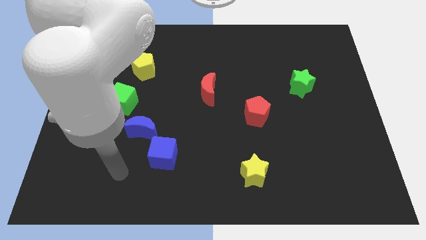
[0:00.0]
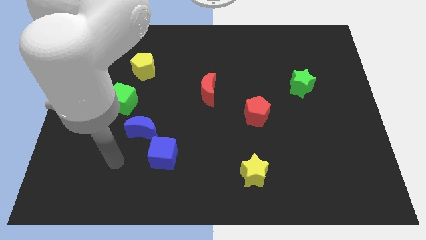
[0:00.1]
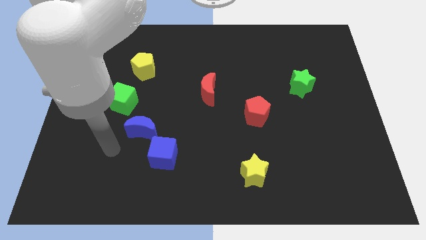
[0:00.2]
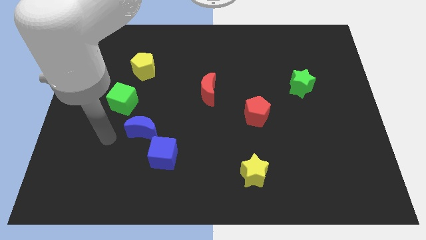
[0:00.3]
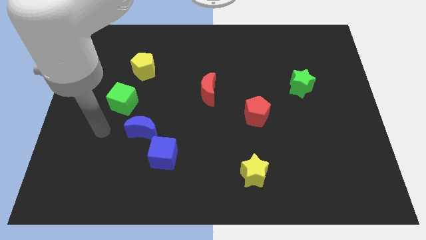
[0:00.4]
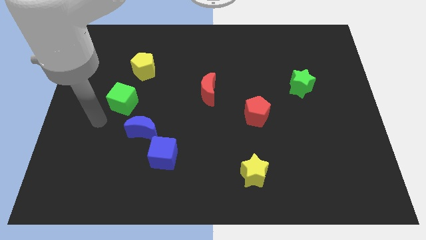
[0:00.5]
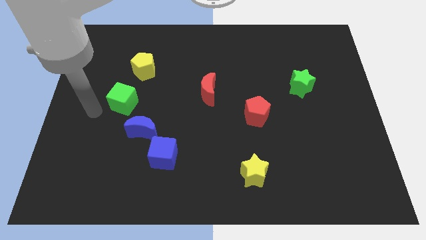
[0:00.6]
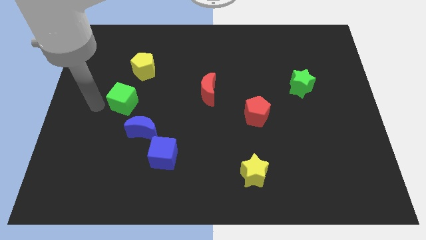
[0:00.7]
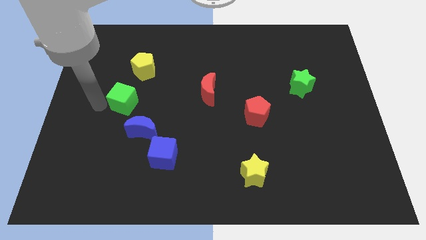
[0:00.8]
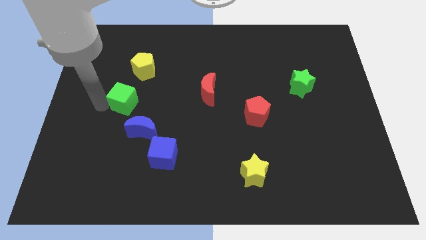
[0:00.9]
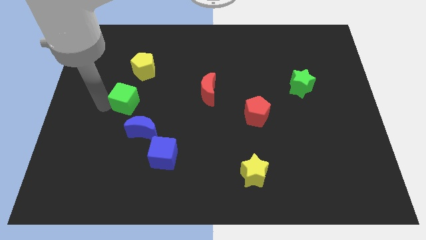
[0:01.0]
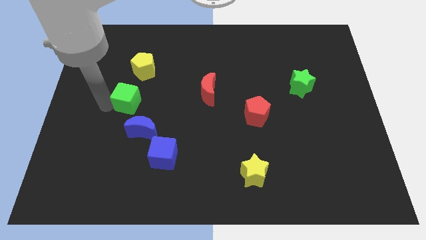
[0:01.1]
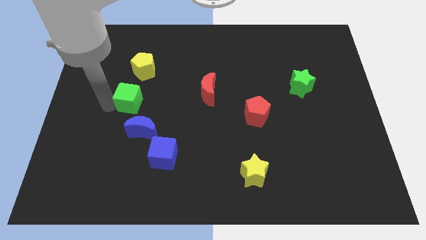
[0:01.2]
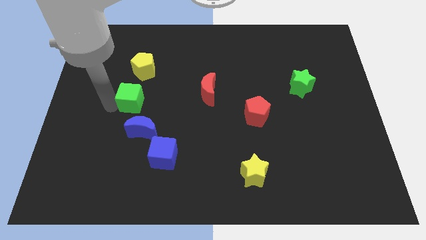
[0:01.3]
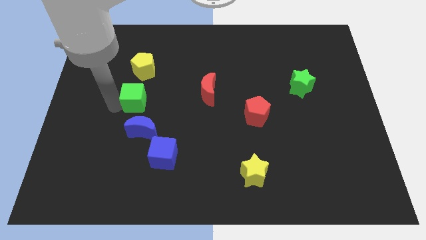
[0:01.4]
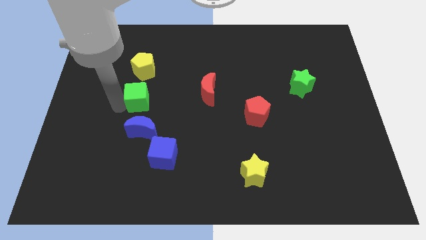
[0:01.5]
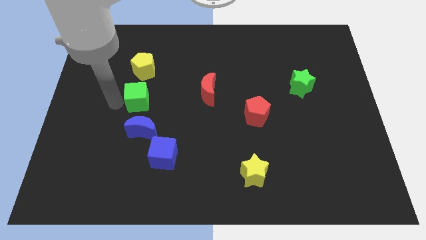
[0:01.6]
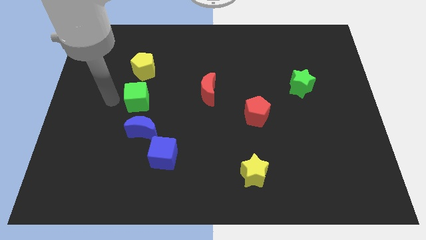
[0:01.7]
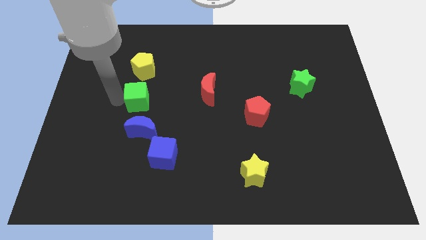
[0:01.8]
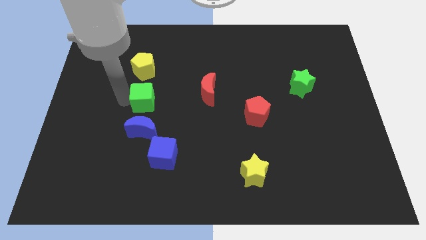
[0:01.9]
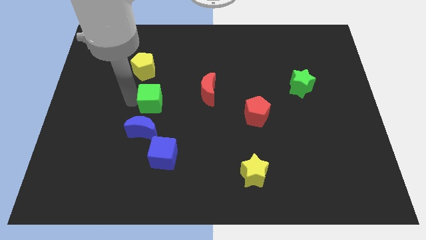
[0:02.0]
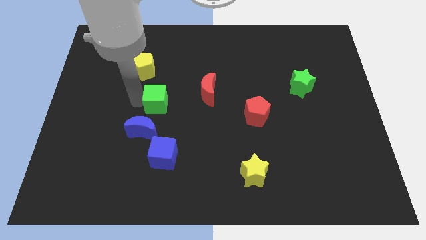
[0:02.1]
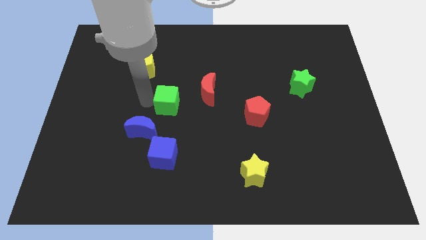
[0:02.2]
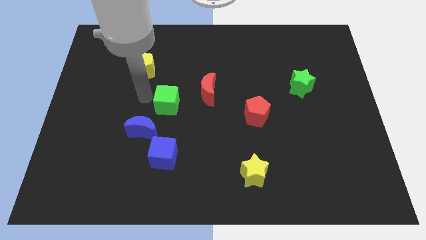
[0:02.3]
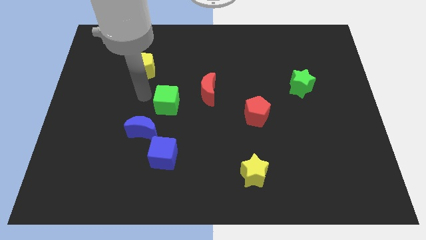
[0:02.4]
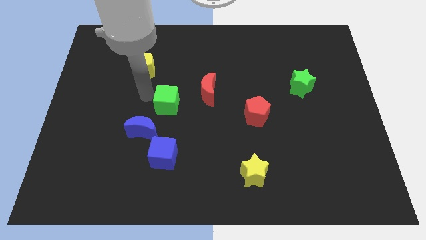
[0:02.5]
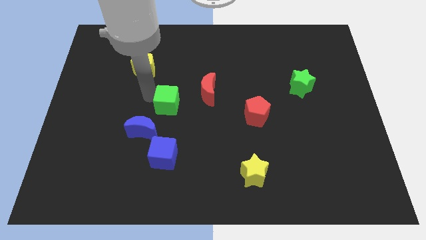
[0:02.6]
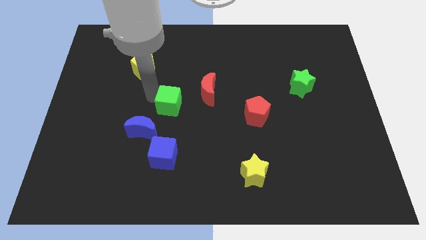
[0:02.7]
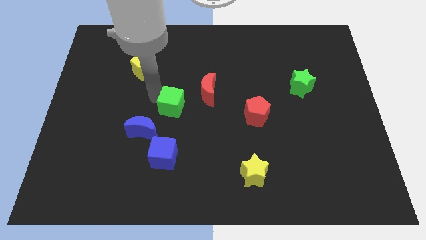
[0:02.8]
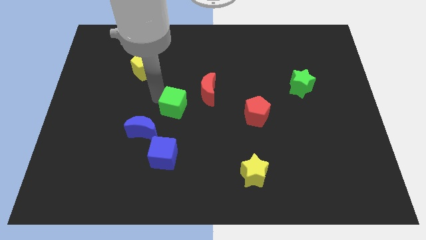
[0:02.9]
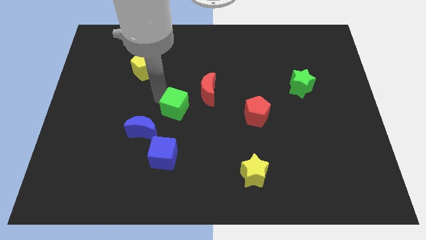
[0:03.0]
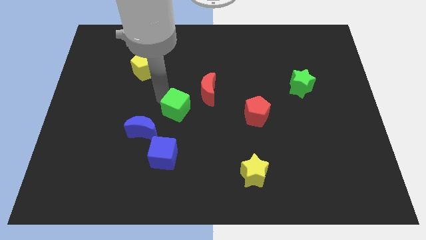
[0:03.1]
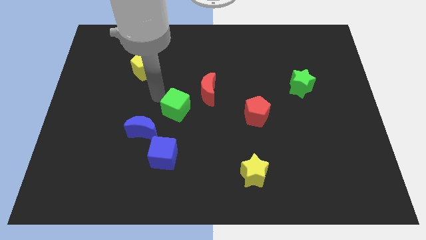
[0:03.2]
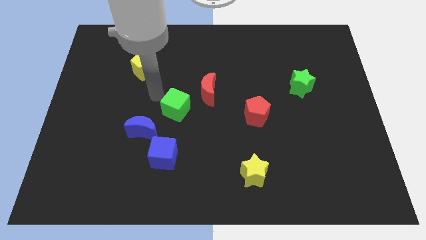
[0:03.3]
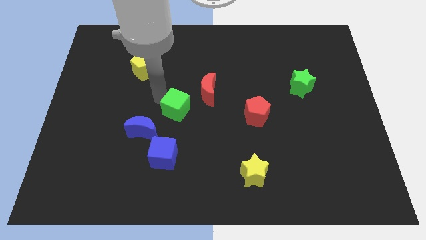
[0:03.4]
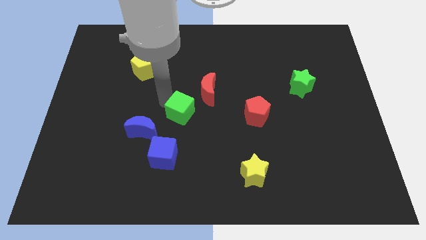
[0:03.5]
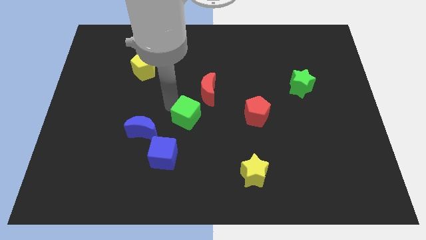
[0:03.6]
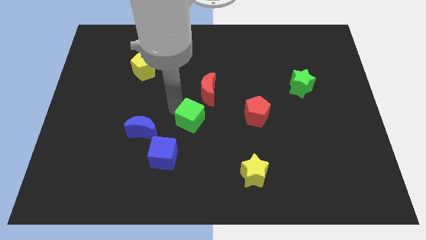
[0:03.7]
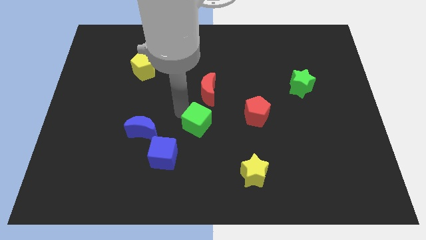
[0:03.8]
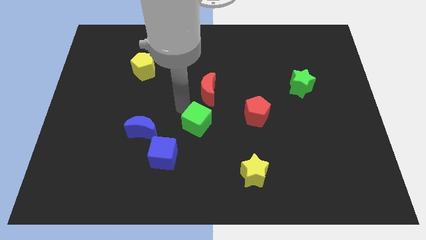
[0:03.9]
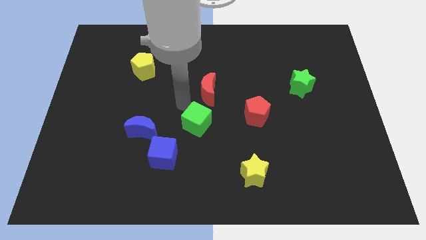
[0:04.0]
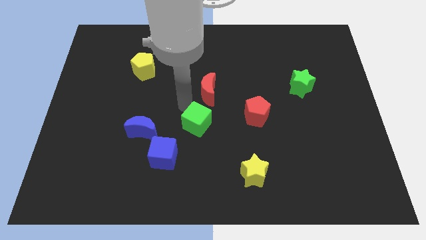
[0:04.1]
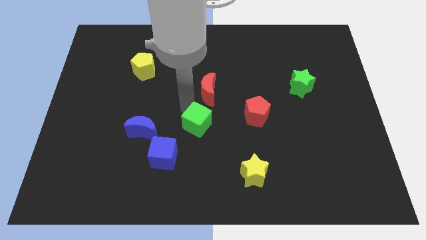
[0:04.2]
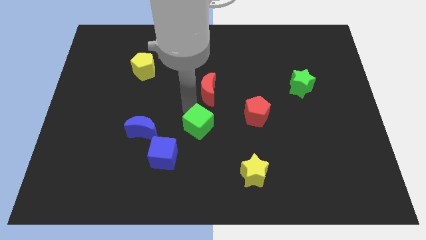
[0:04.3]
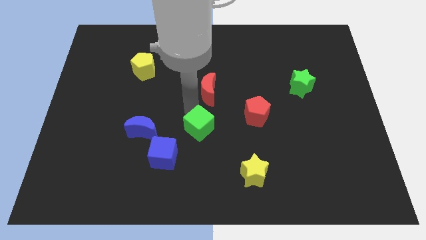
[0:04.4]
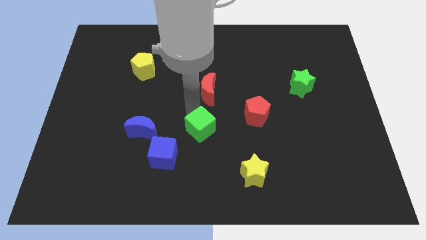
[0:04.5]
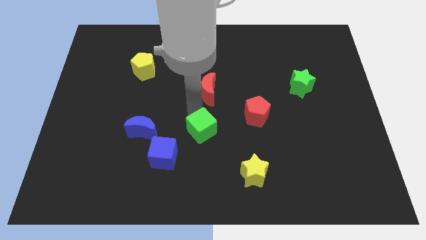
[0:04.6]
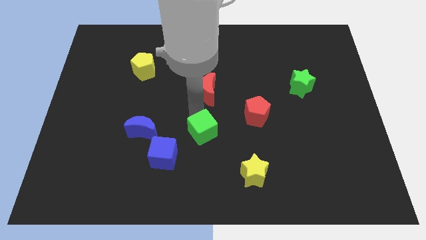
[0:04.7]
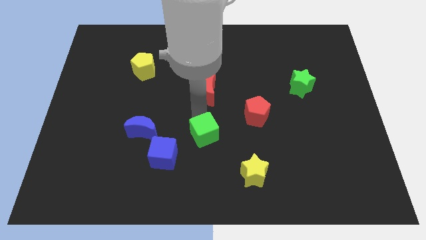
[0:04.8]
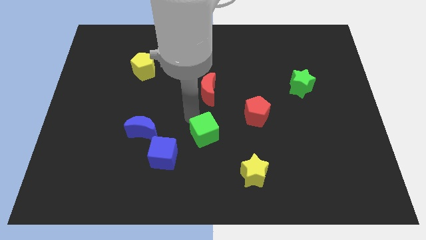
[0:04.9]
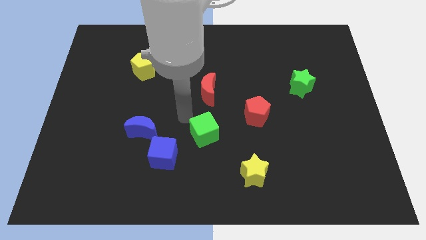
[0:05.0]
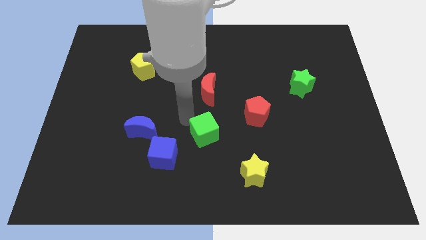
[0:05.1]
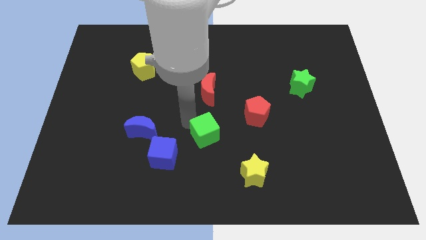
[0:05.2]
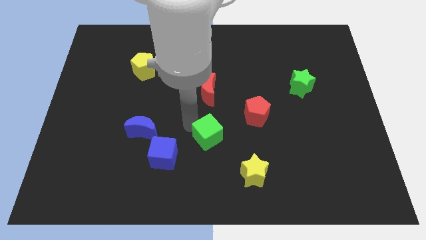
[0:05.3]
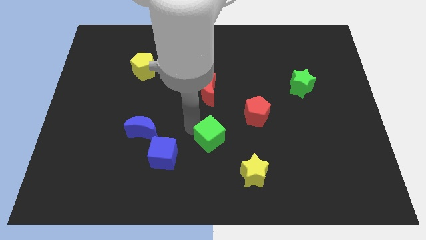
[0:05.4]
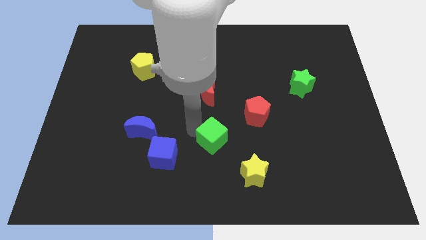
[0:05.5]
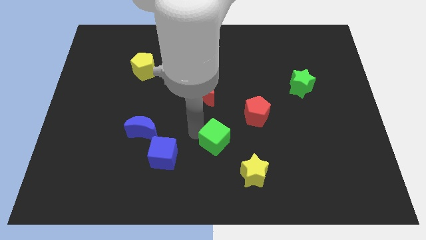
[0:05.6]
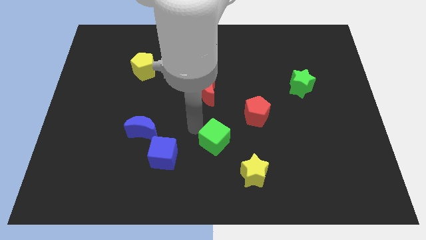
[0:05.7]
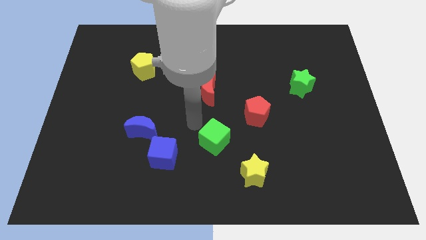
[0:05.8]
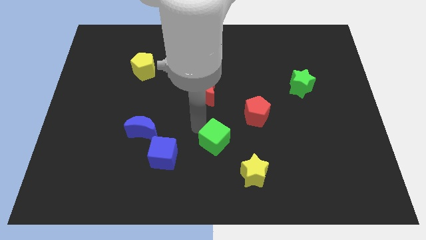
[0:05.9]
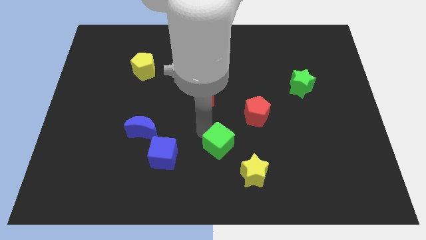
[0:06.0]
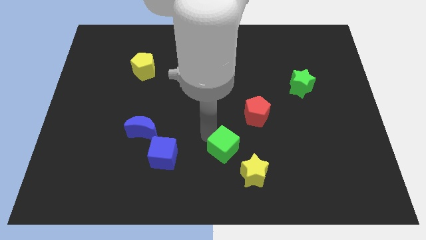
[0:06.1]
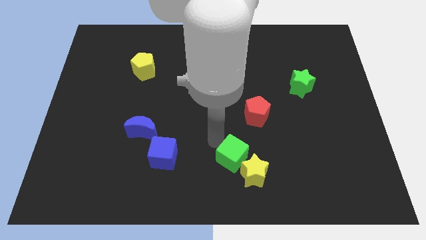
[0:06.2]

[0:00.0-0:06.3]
put the green cube to the yellow star

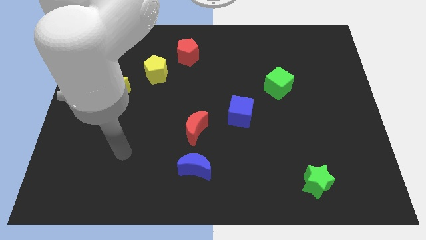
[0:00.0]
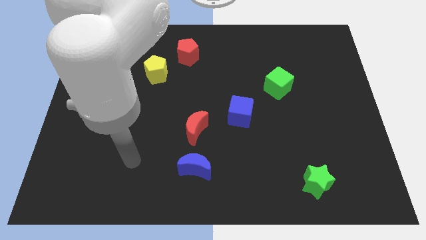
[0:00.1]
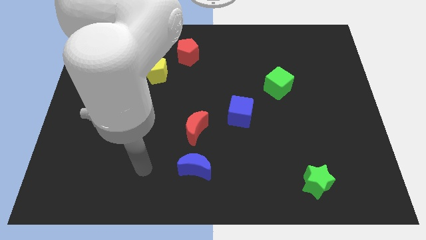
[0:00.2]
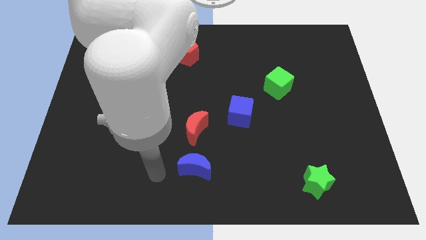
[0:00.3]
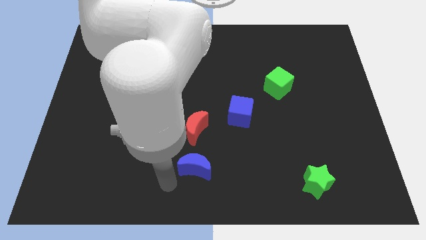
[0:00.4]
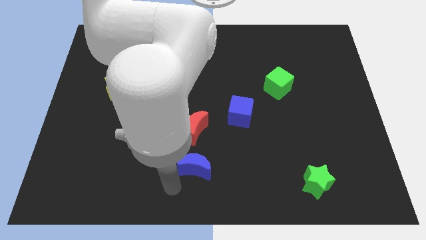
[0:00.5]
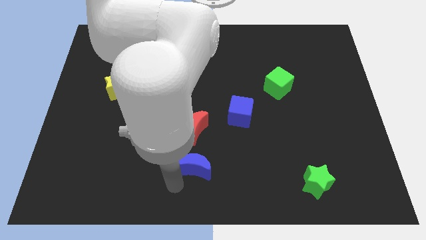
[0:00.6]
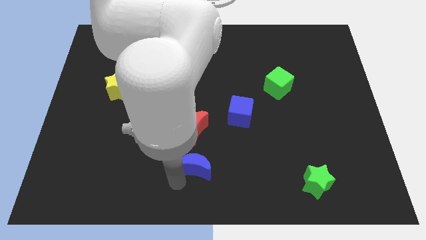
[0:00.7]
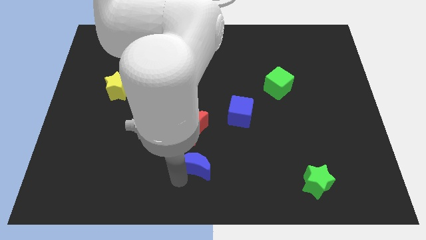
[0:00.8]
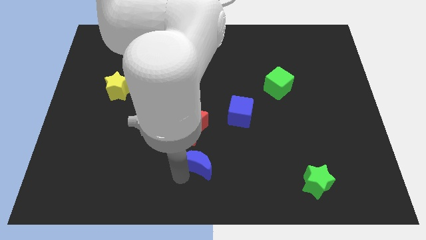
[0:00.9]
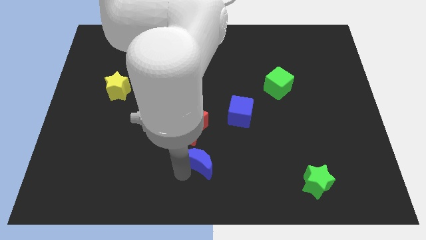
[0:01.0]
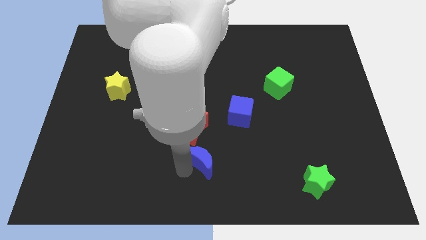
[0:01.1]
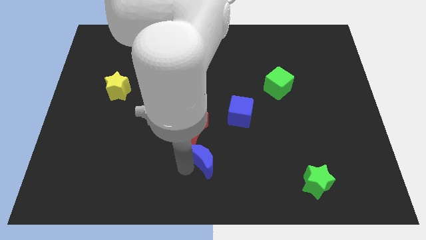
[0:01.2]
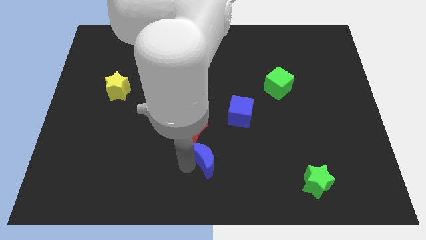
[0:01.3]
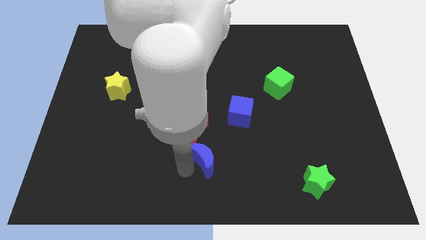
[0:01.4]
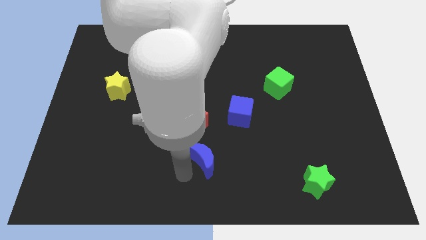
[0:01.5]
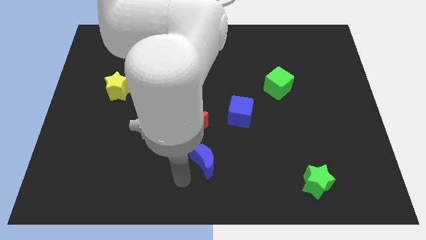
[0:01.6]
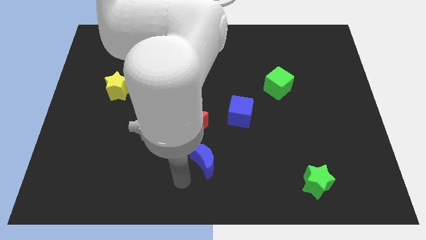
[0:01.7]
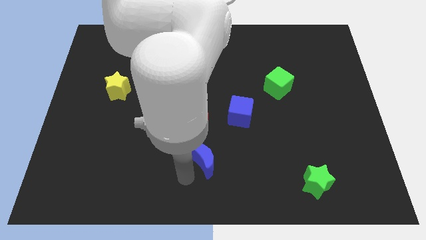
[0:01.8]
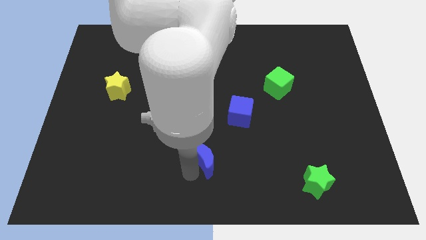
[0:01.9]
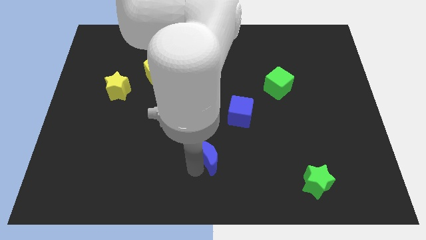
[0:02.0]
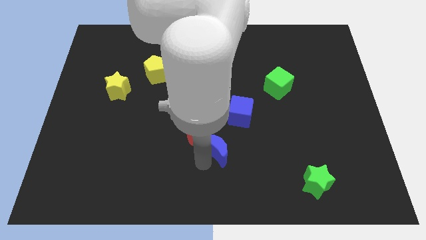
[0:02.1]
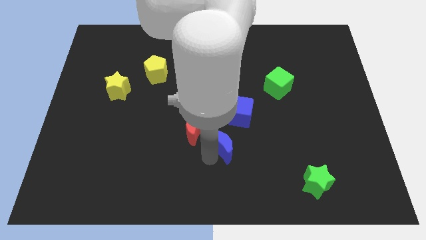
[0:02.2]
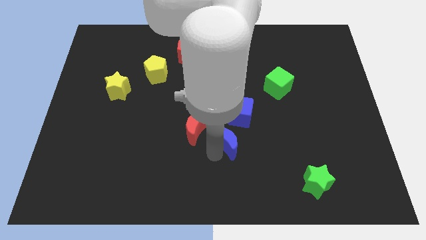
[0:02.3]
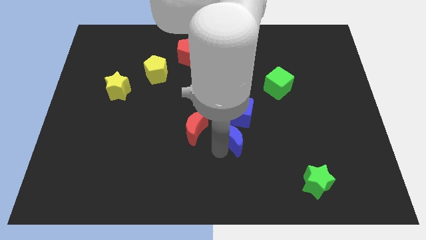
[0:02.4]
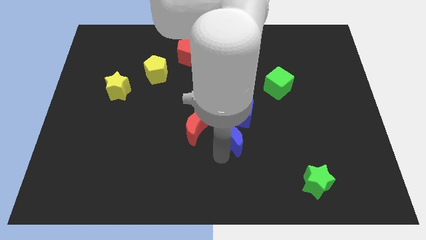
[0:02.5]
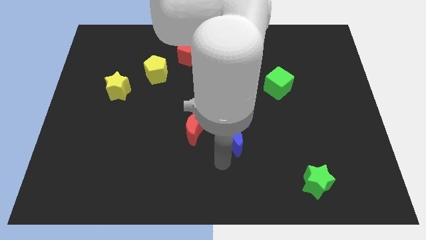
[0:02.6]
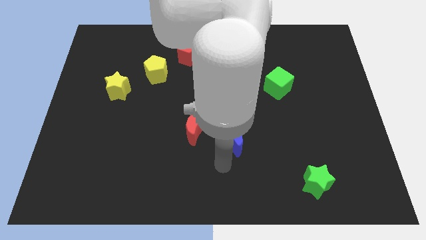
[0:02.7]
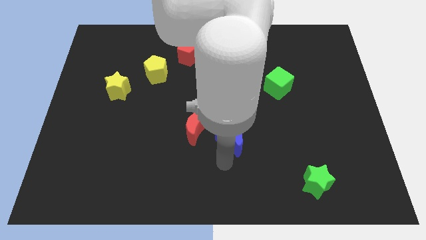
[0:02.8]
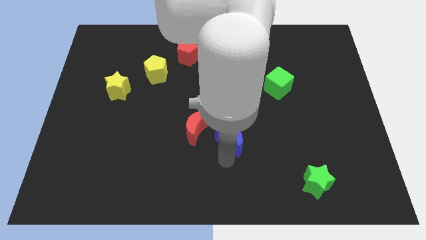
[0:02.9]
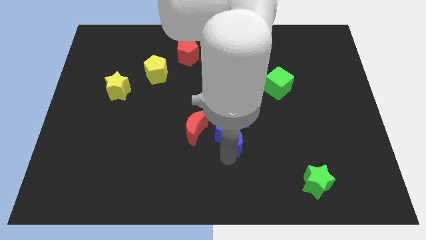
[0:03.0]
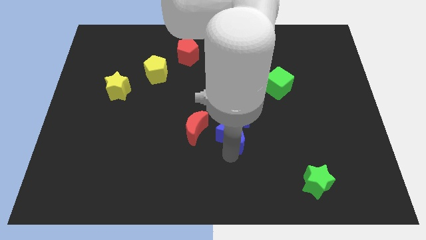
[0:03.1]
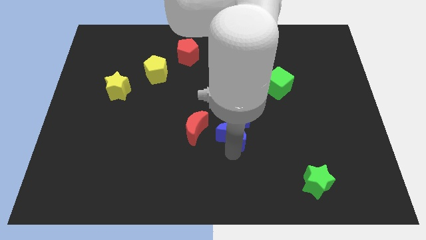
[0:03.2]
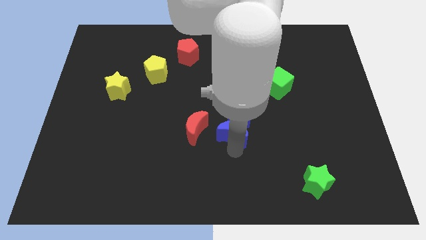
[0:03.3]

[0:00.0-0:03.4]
put the blue moon next to the blue cube
